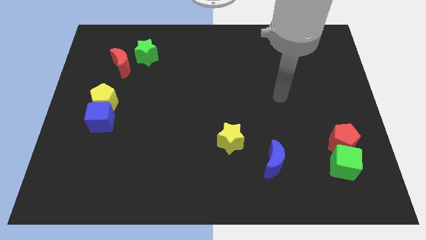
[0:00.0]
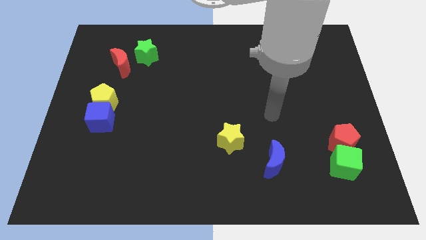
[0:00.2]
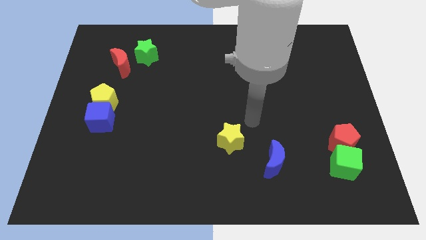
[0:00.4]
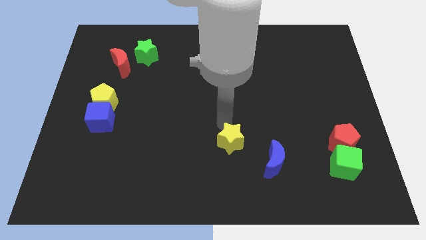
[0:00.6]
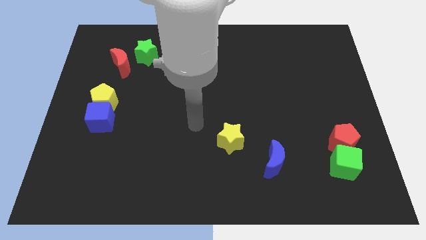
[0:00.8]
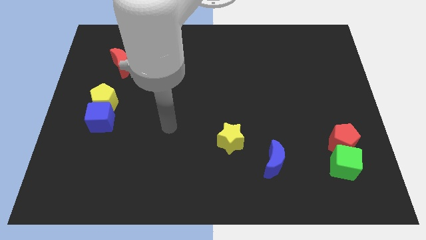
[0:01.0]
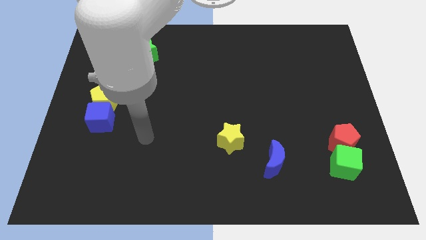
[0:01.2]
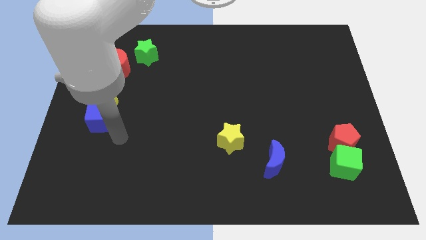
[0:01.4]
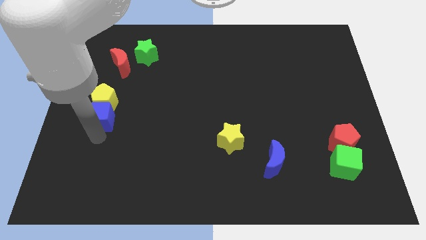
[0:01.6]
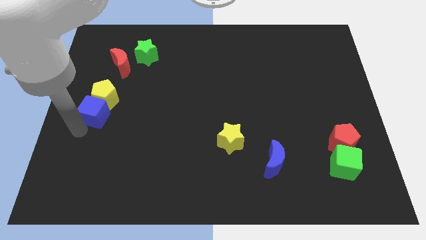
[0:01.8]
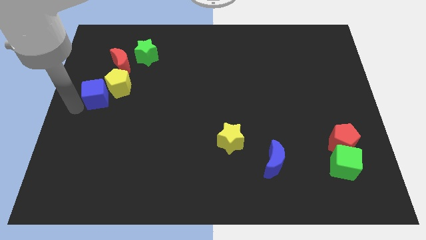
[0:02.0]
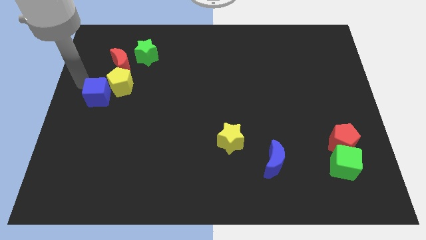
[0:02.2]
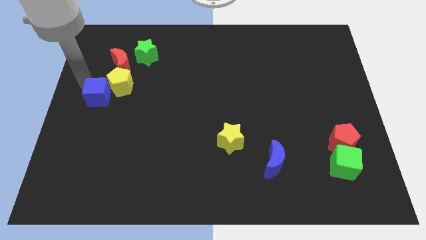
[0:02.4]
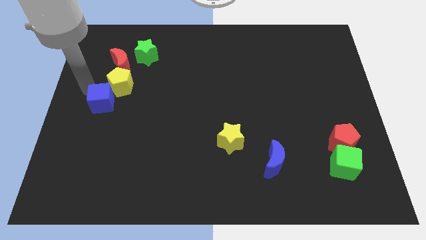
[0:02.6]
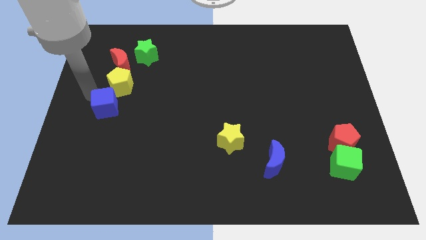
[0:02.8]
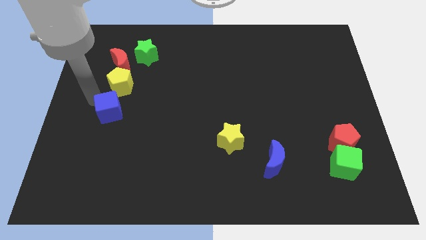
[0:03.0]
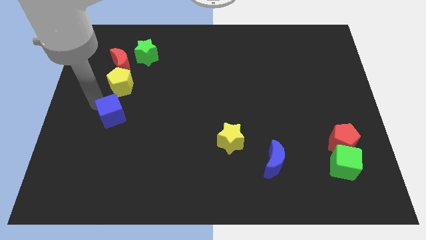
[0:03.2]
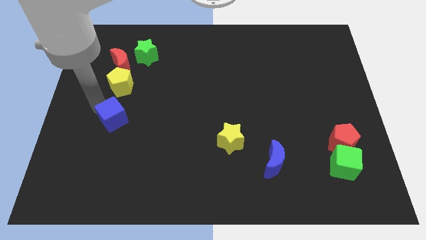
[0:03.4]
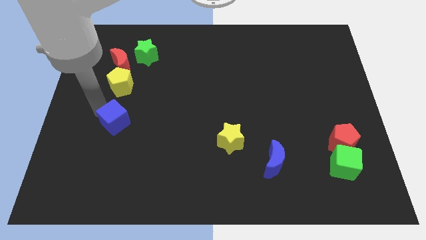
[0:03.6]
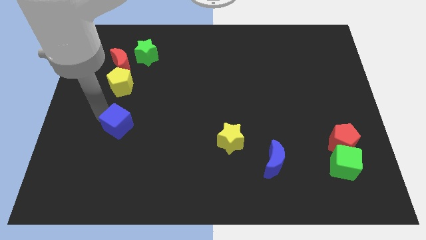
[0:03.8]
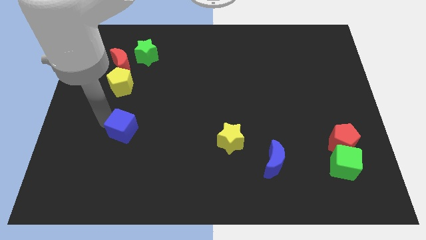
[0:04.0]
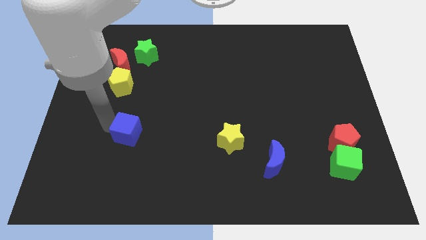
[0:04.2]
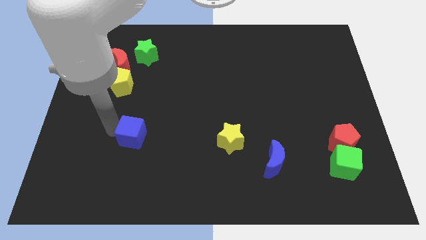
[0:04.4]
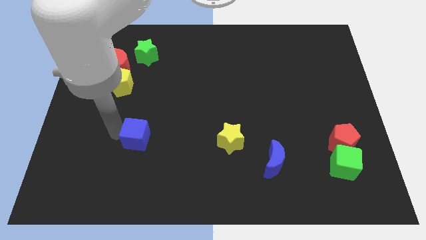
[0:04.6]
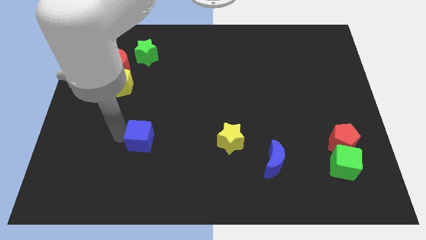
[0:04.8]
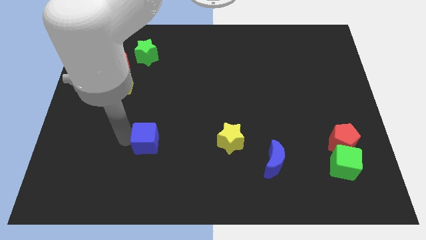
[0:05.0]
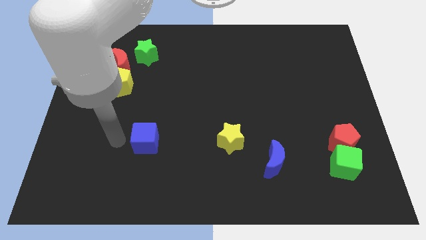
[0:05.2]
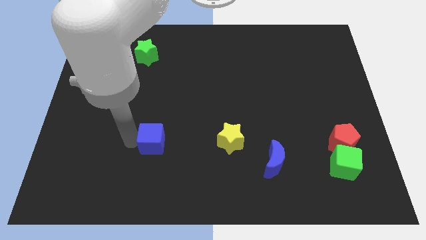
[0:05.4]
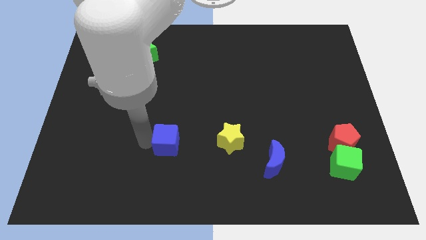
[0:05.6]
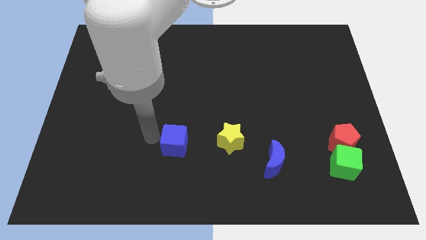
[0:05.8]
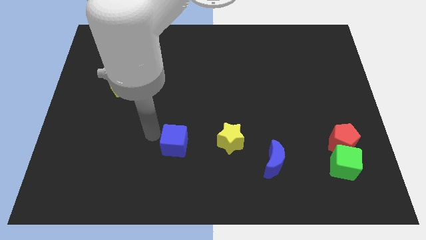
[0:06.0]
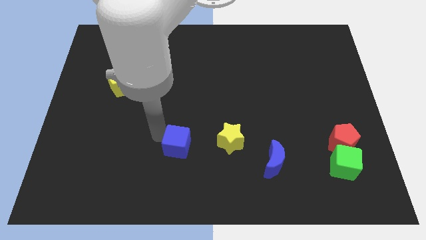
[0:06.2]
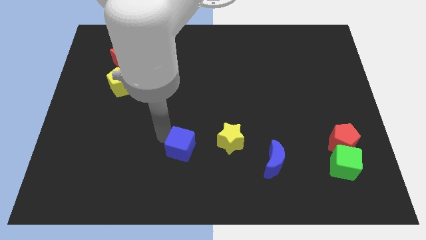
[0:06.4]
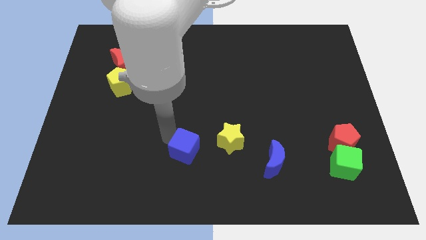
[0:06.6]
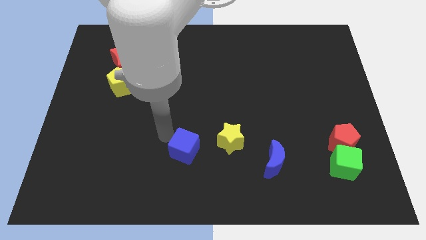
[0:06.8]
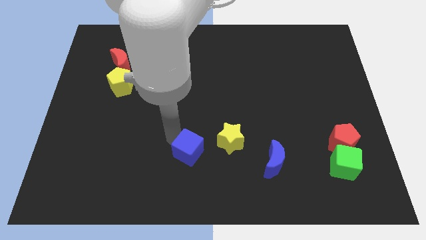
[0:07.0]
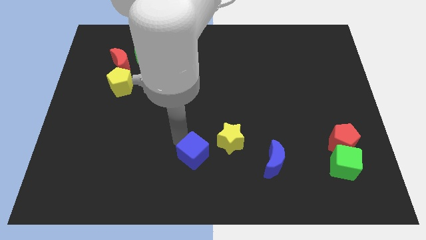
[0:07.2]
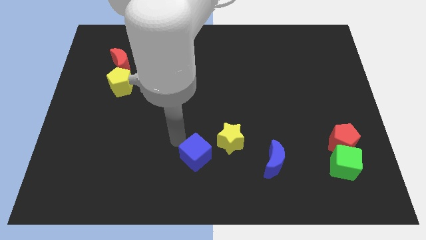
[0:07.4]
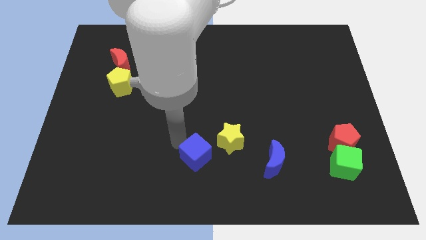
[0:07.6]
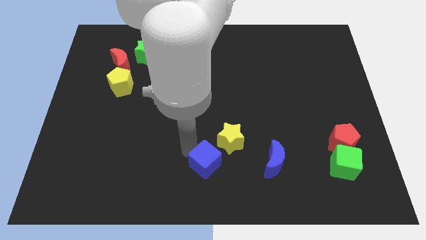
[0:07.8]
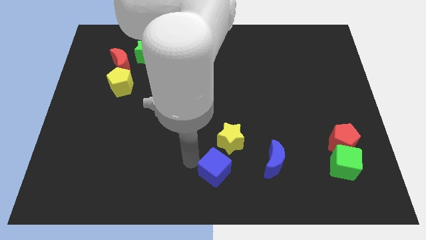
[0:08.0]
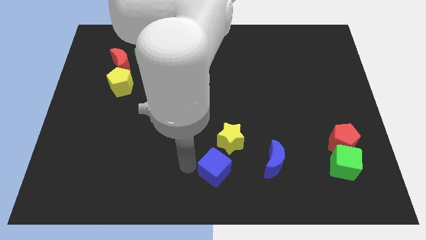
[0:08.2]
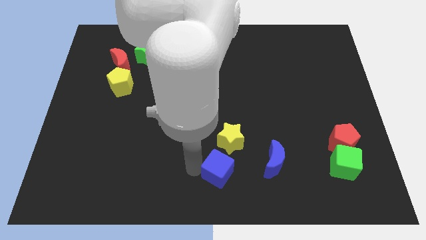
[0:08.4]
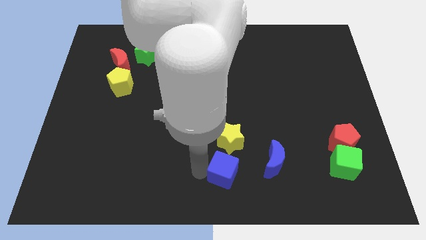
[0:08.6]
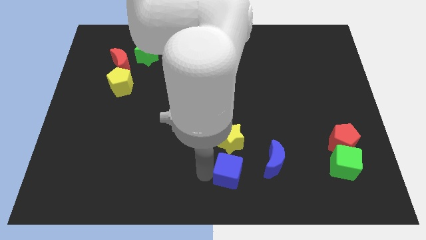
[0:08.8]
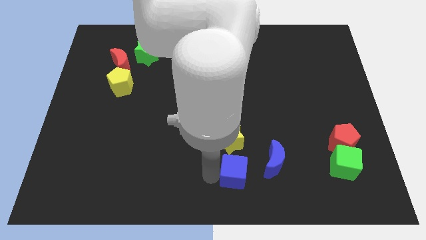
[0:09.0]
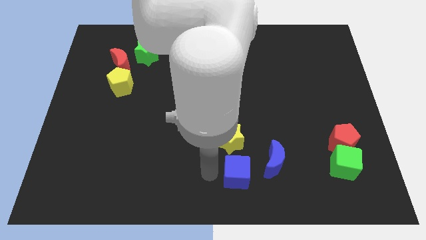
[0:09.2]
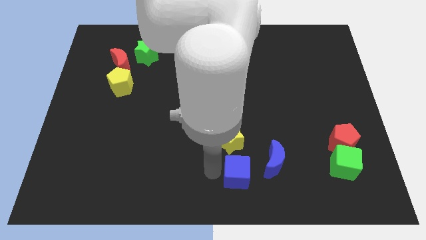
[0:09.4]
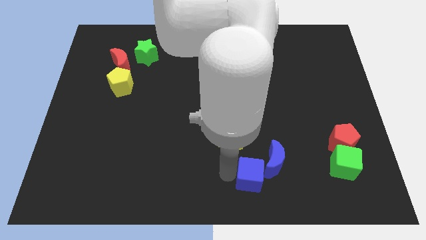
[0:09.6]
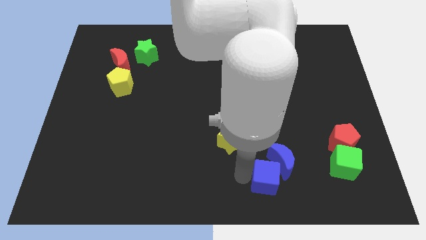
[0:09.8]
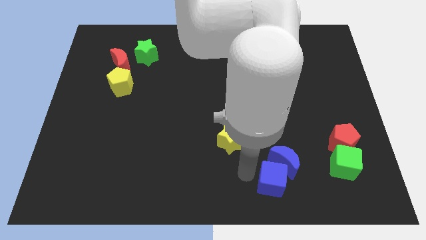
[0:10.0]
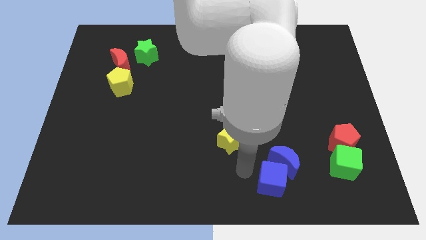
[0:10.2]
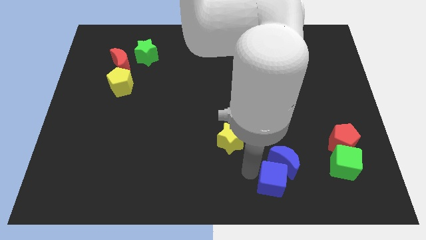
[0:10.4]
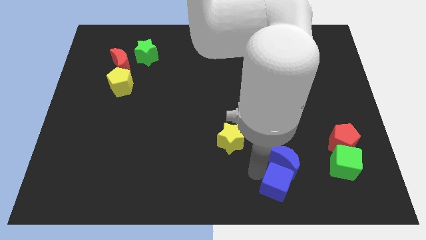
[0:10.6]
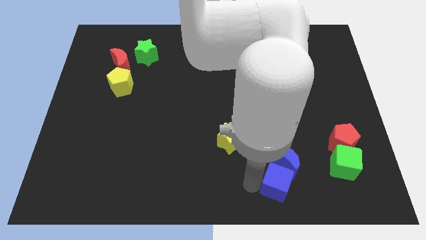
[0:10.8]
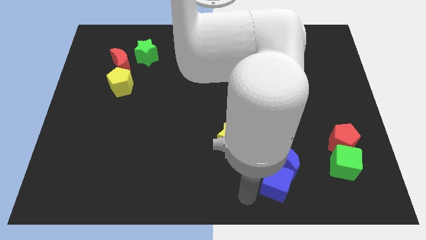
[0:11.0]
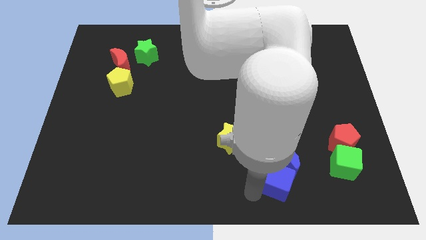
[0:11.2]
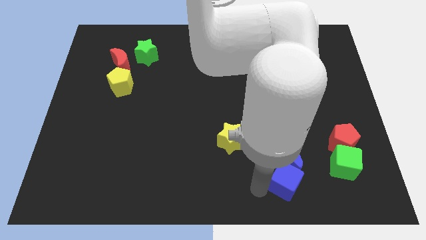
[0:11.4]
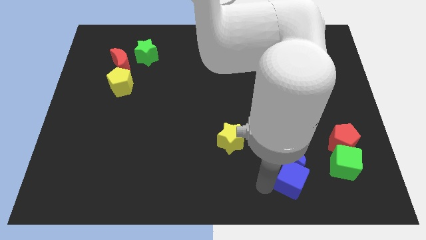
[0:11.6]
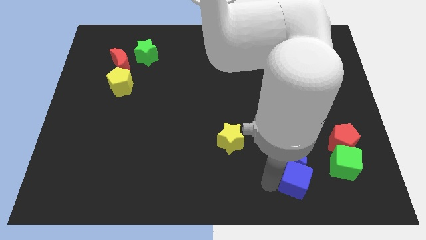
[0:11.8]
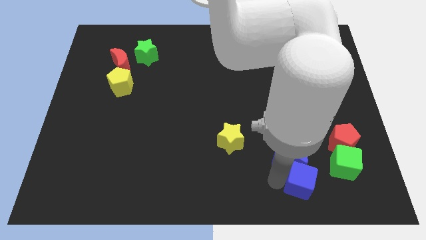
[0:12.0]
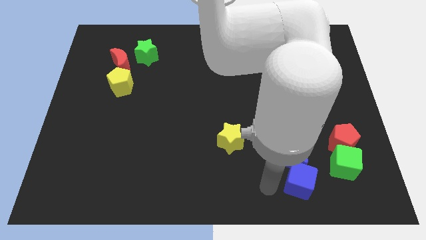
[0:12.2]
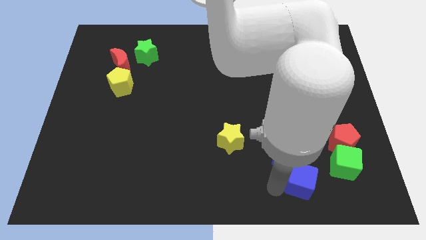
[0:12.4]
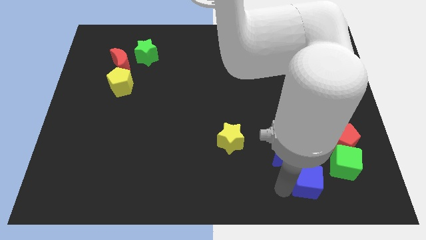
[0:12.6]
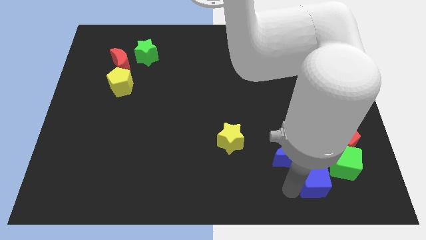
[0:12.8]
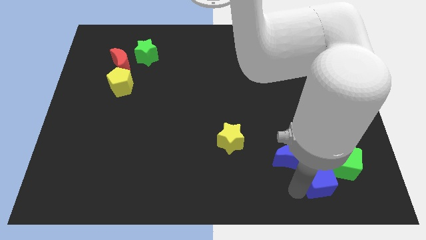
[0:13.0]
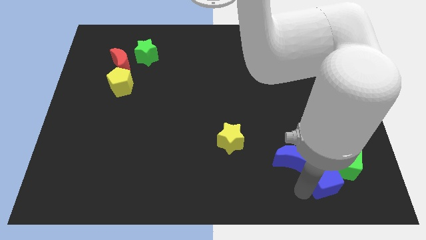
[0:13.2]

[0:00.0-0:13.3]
push the blue cube just right of the blue moon

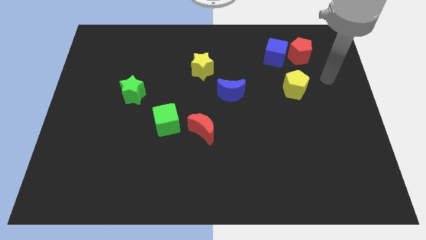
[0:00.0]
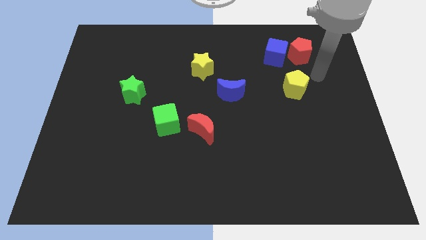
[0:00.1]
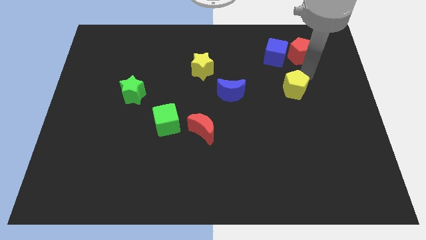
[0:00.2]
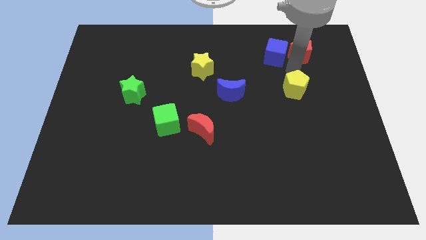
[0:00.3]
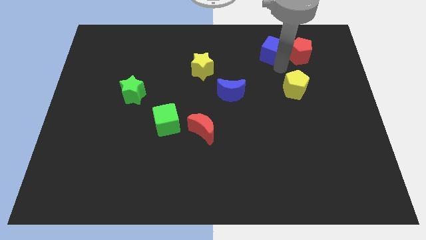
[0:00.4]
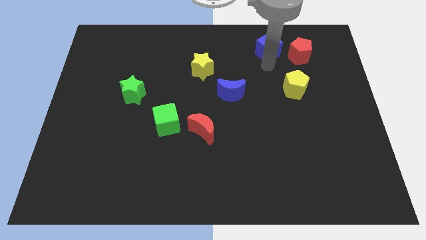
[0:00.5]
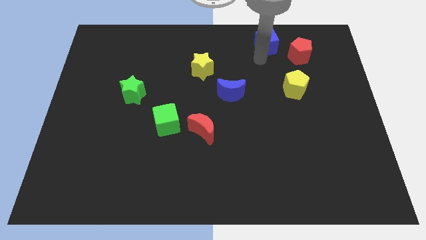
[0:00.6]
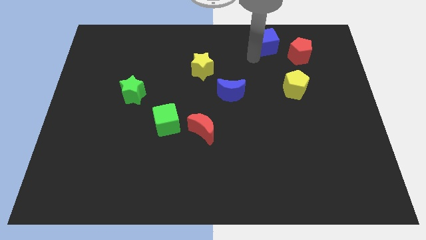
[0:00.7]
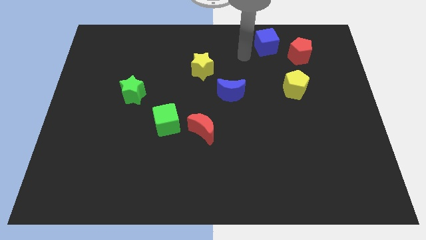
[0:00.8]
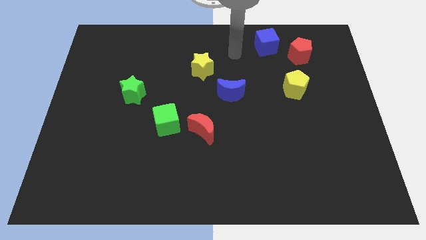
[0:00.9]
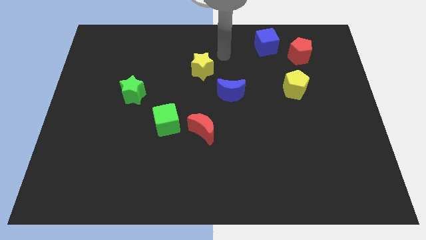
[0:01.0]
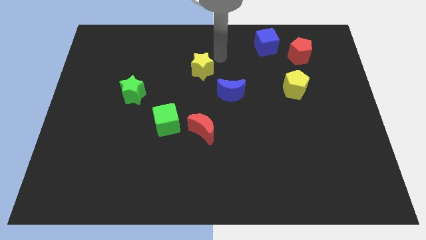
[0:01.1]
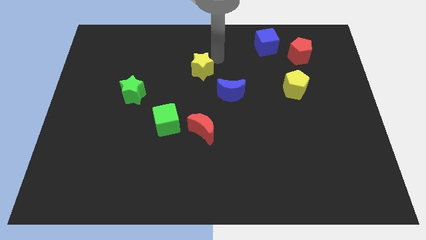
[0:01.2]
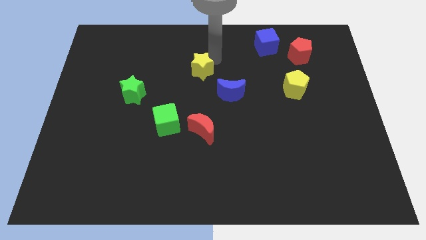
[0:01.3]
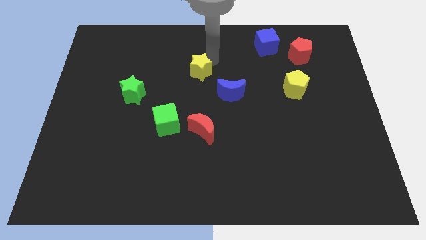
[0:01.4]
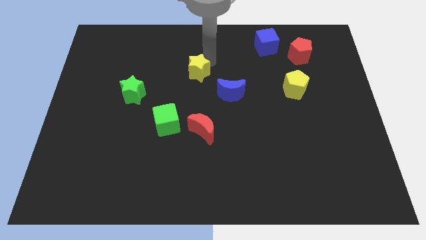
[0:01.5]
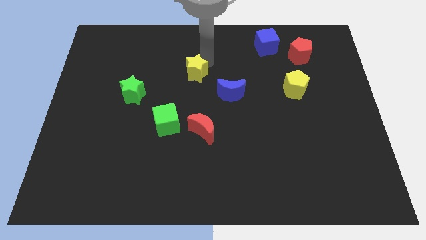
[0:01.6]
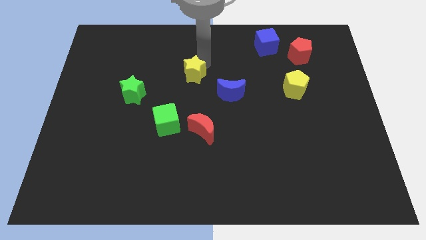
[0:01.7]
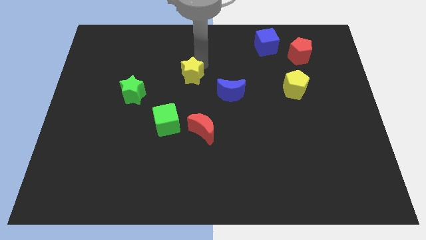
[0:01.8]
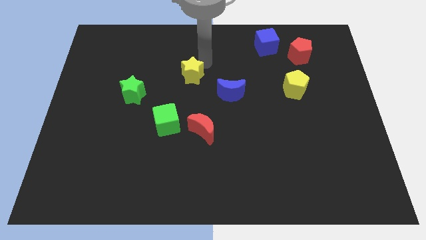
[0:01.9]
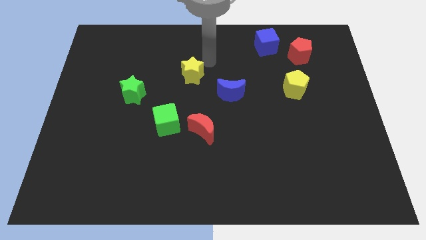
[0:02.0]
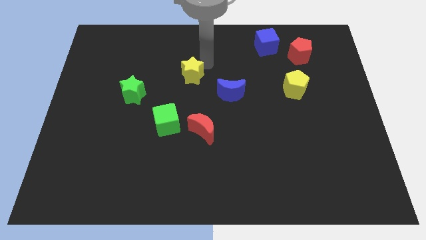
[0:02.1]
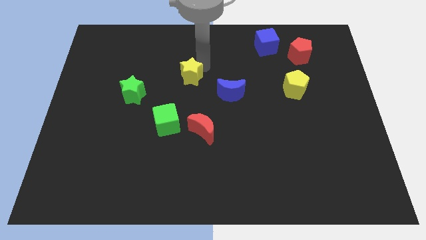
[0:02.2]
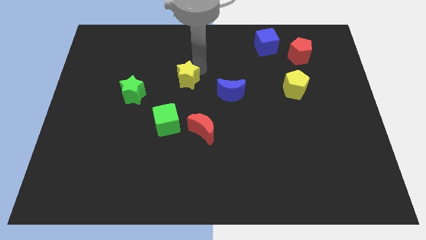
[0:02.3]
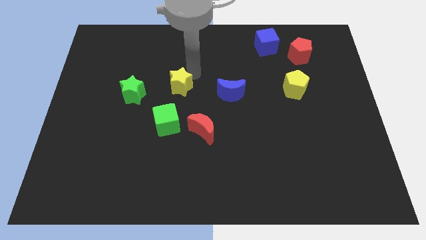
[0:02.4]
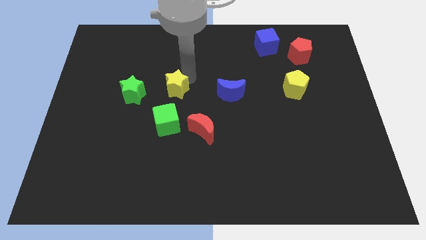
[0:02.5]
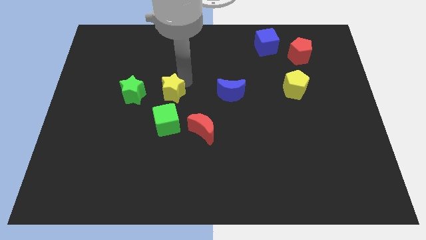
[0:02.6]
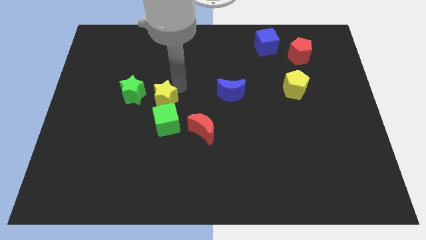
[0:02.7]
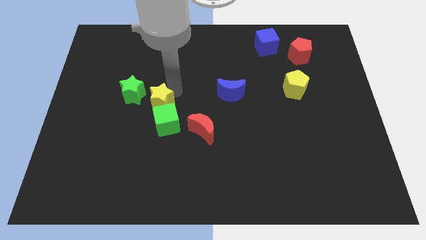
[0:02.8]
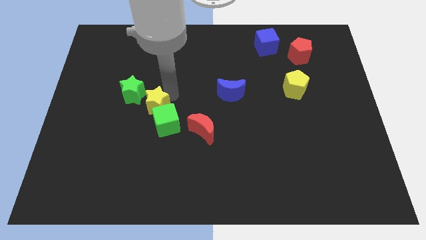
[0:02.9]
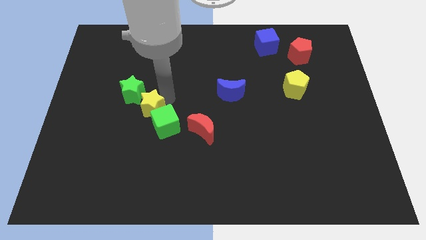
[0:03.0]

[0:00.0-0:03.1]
slide the yellow star just left of the green cube
